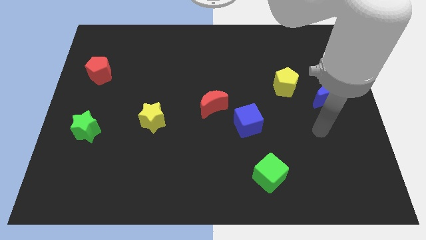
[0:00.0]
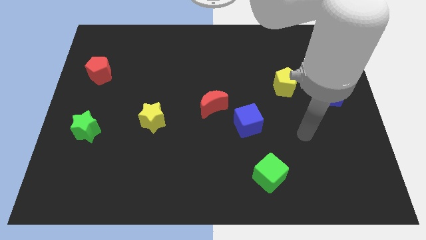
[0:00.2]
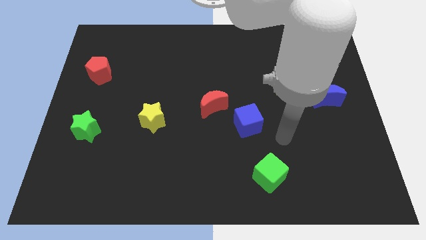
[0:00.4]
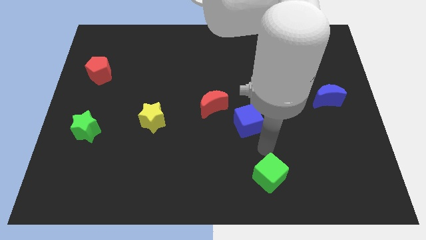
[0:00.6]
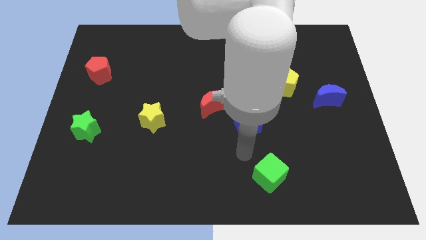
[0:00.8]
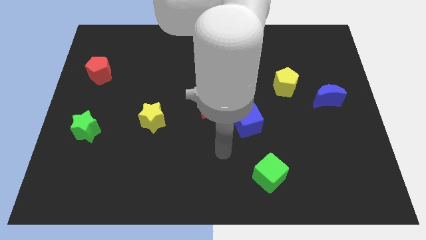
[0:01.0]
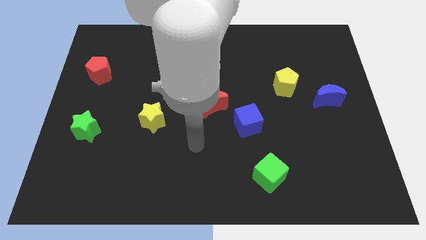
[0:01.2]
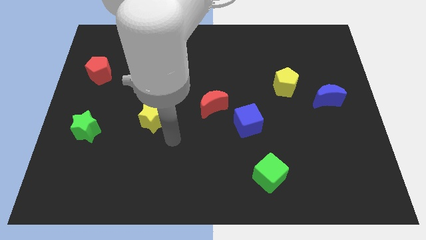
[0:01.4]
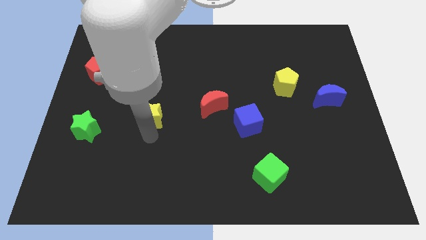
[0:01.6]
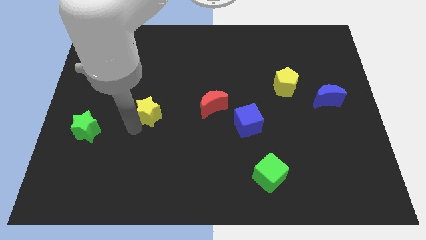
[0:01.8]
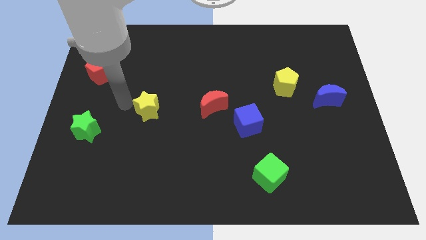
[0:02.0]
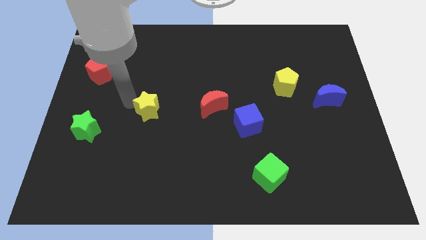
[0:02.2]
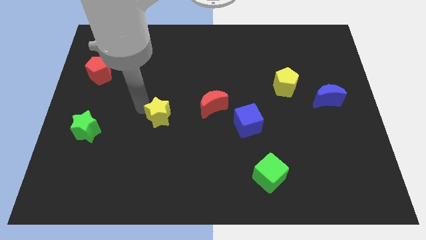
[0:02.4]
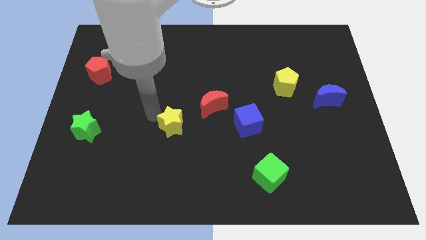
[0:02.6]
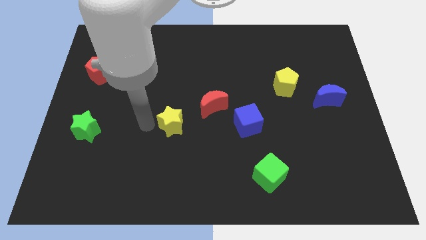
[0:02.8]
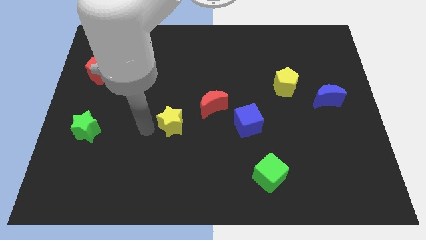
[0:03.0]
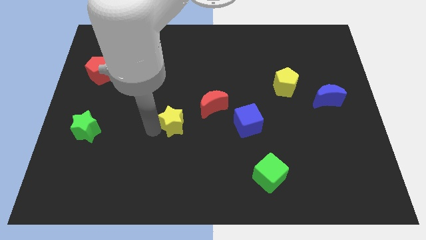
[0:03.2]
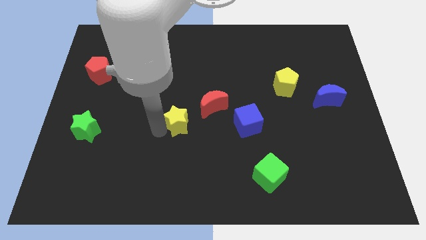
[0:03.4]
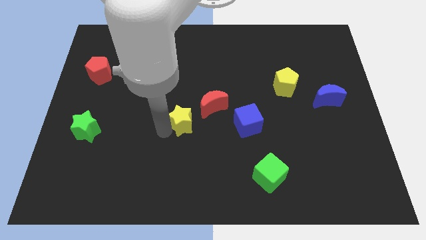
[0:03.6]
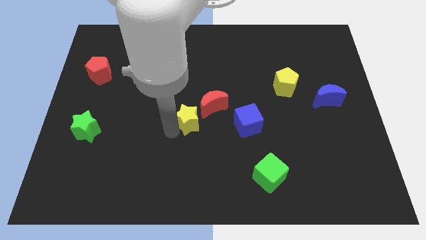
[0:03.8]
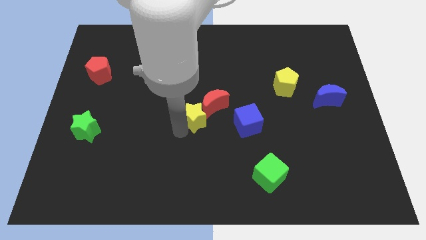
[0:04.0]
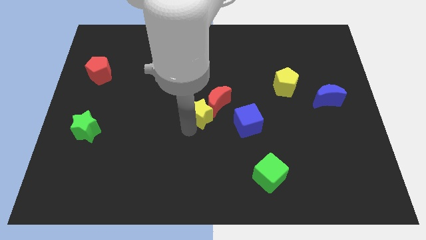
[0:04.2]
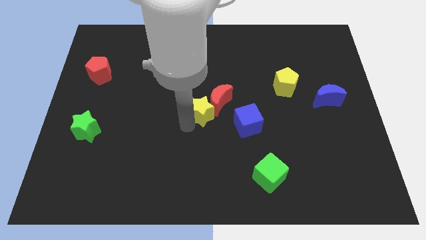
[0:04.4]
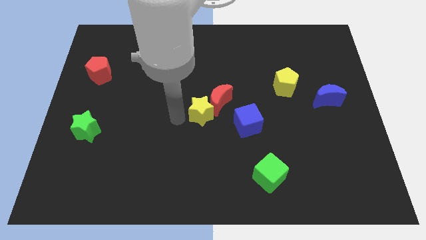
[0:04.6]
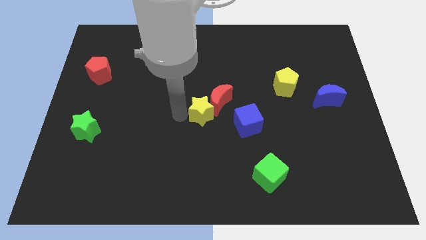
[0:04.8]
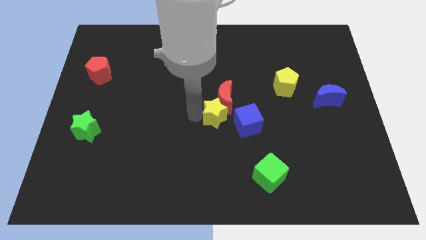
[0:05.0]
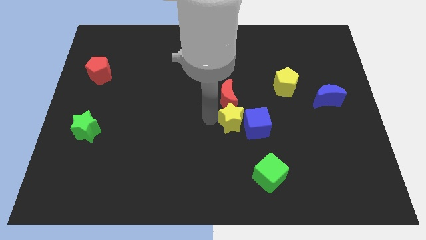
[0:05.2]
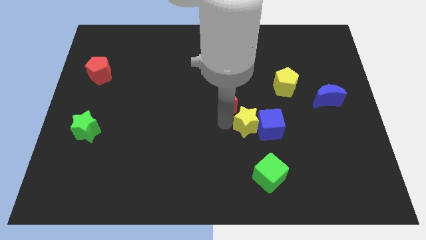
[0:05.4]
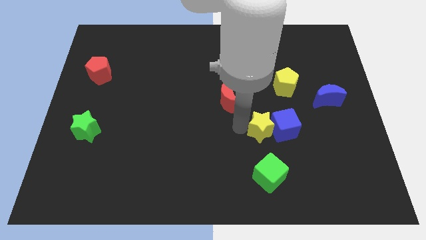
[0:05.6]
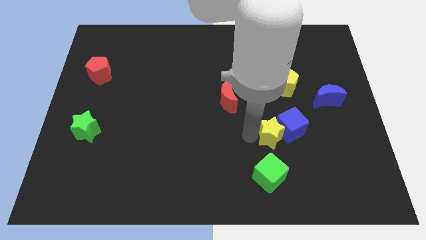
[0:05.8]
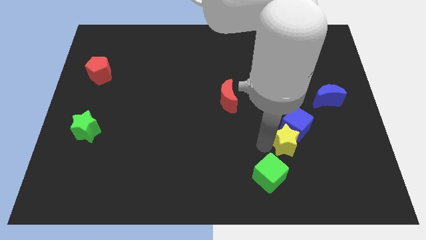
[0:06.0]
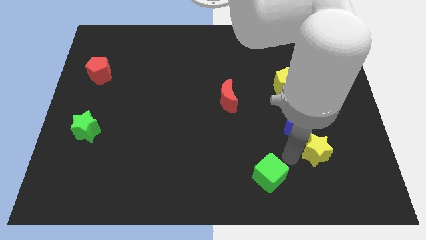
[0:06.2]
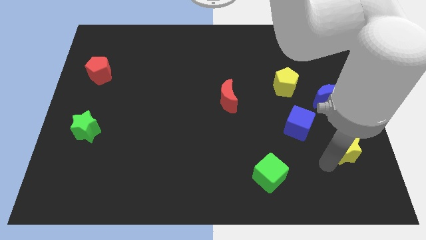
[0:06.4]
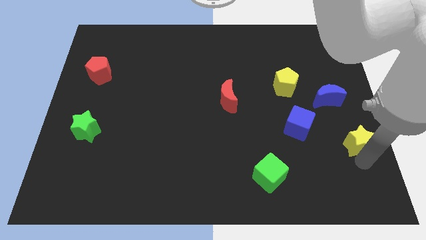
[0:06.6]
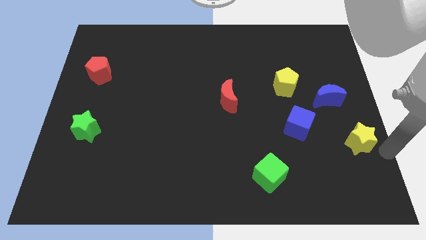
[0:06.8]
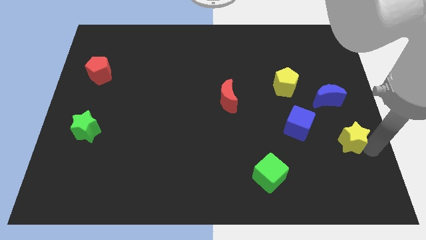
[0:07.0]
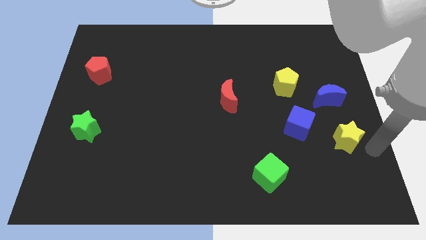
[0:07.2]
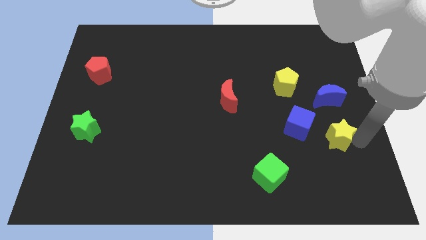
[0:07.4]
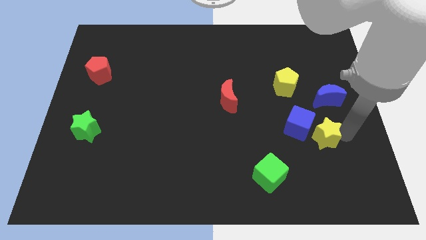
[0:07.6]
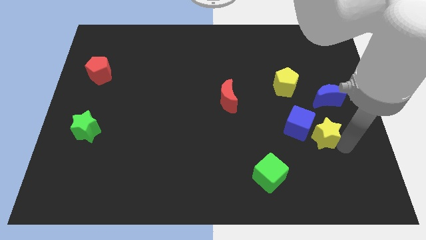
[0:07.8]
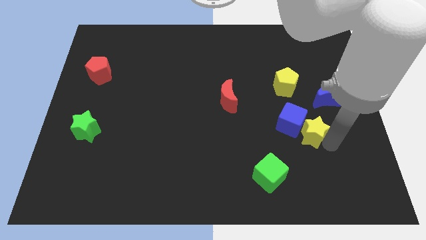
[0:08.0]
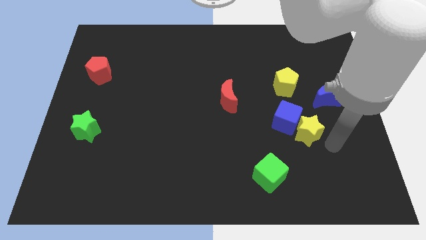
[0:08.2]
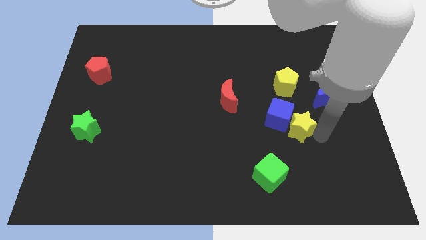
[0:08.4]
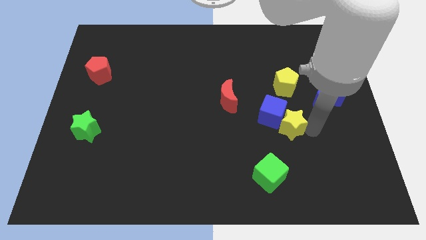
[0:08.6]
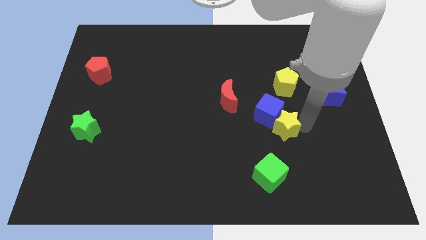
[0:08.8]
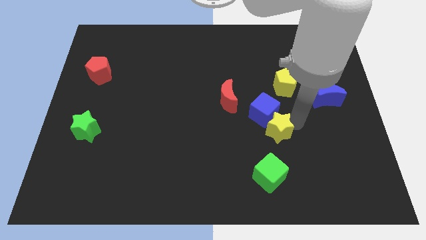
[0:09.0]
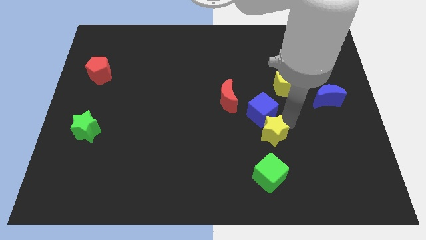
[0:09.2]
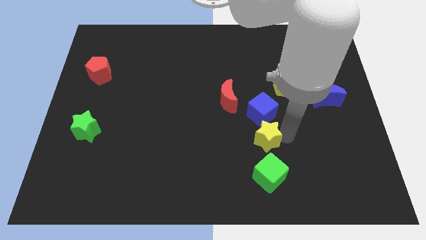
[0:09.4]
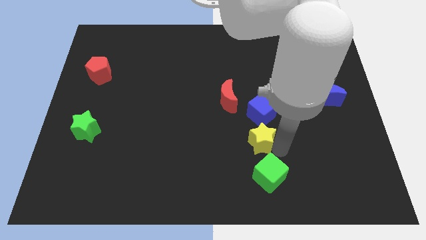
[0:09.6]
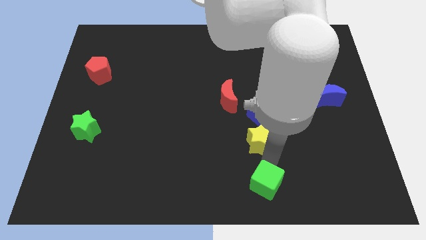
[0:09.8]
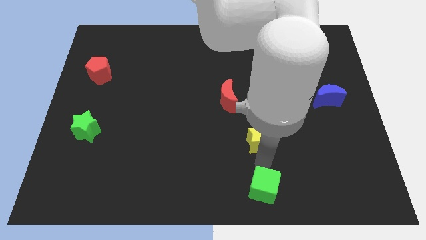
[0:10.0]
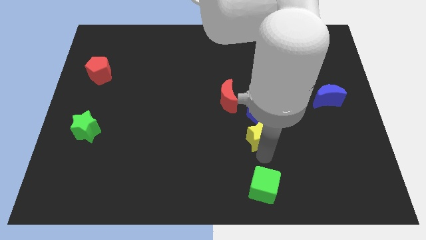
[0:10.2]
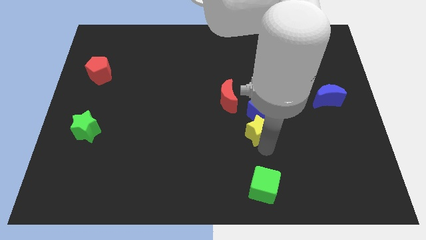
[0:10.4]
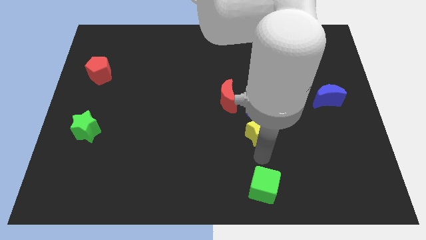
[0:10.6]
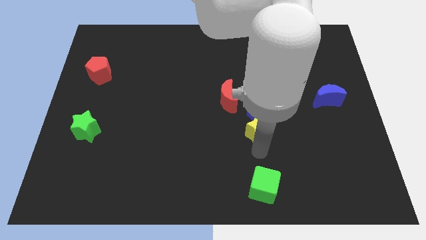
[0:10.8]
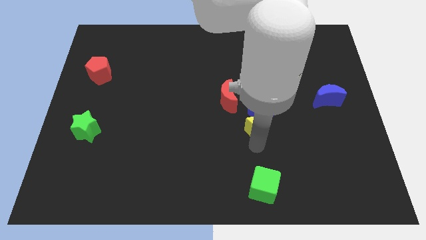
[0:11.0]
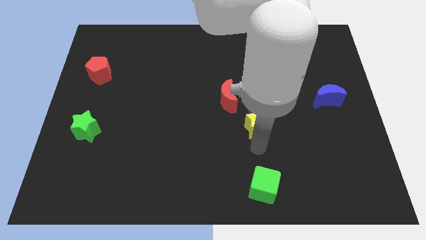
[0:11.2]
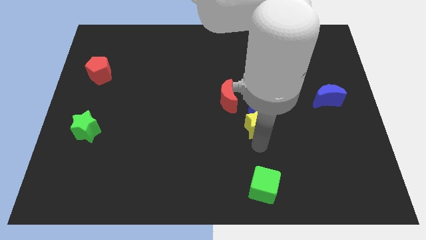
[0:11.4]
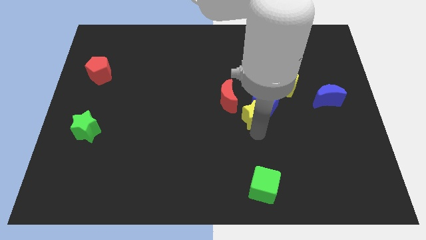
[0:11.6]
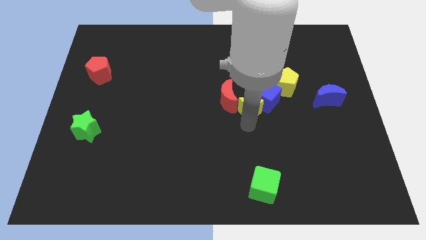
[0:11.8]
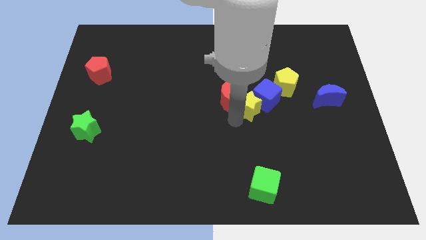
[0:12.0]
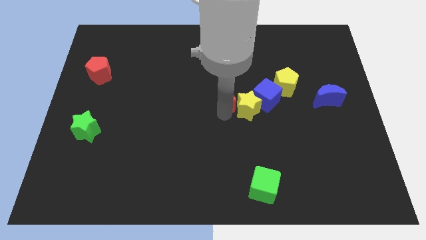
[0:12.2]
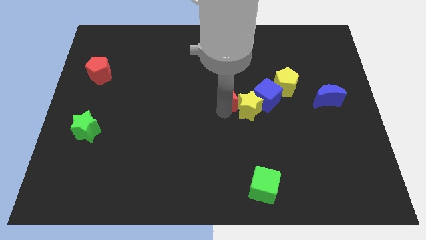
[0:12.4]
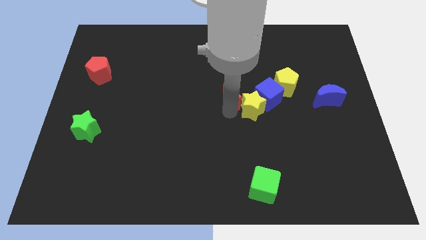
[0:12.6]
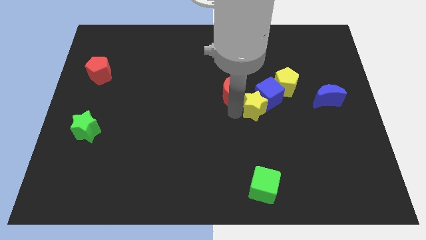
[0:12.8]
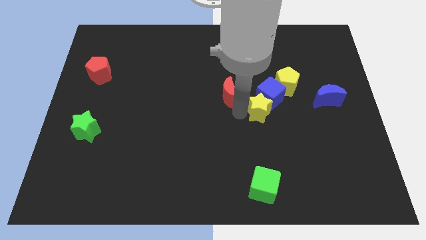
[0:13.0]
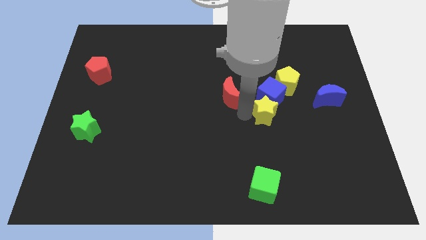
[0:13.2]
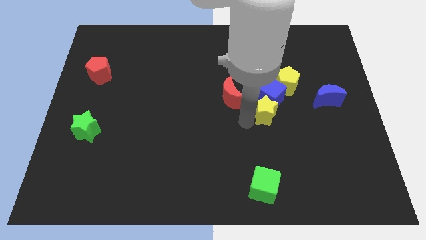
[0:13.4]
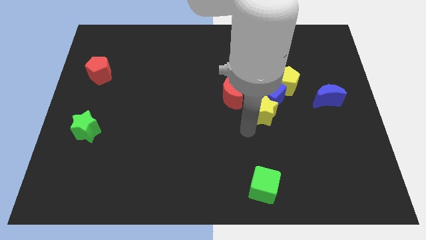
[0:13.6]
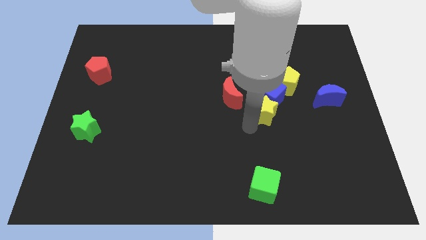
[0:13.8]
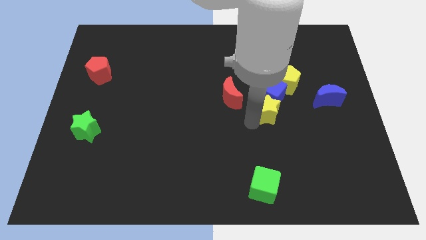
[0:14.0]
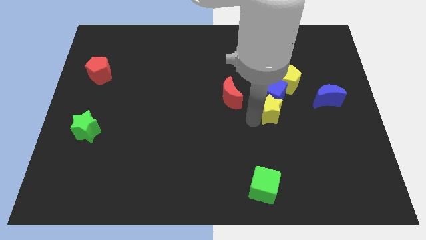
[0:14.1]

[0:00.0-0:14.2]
move the yellow star to the left of the blue moon
